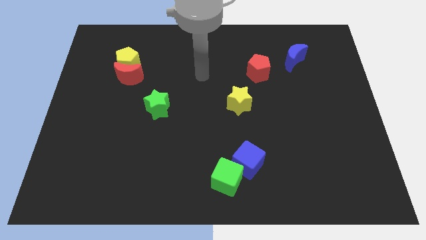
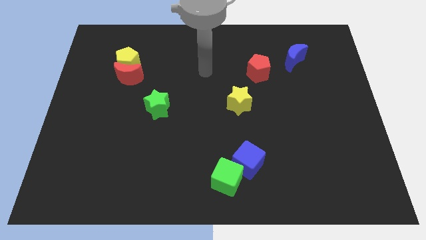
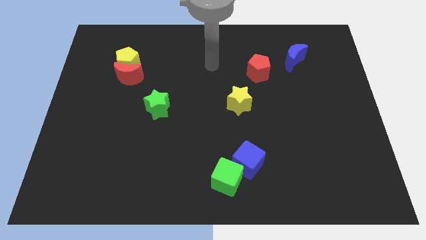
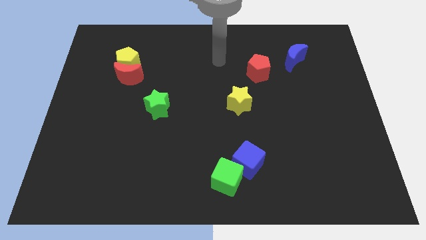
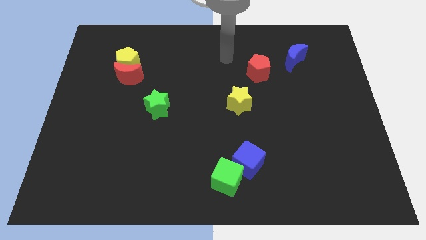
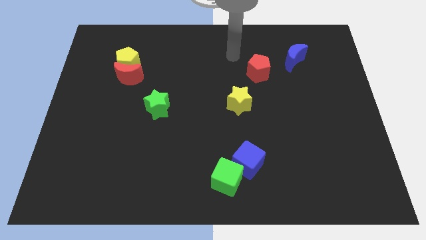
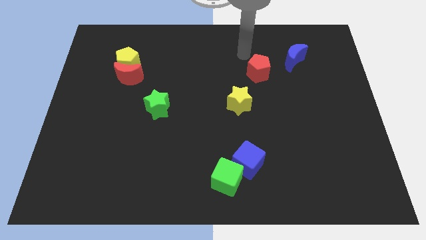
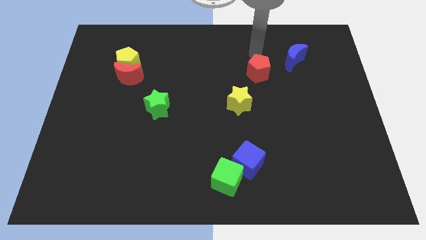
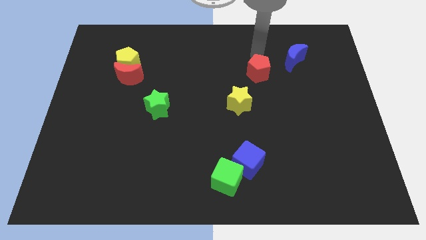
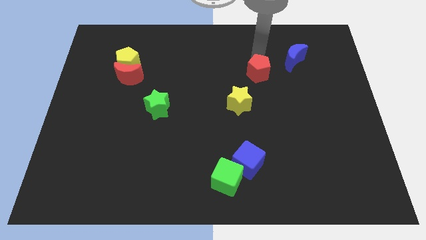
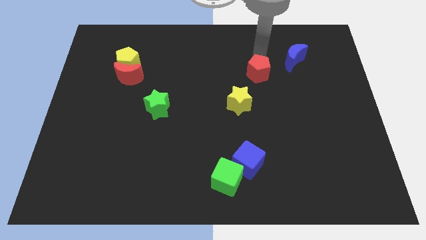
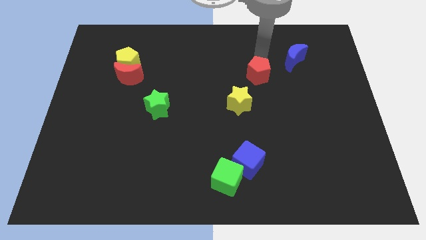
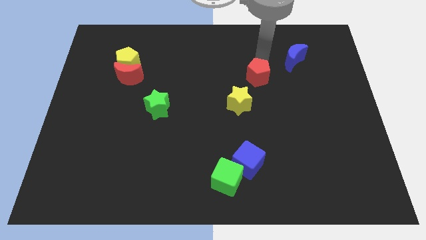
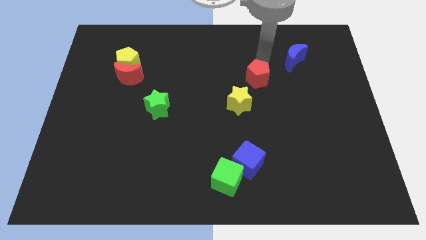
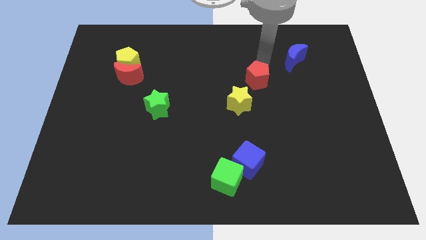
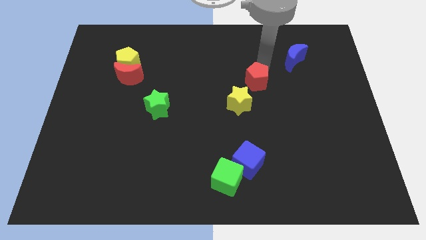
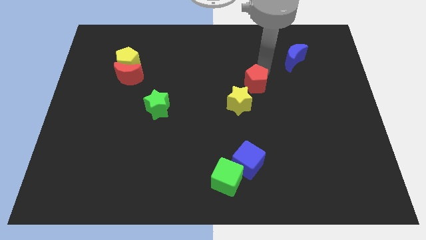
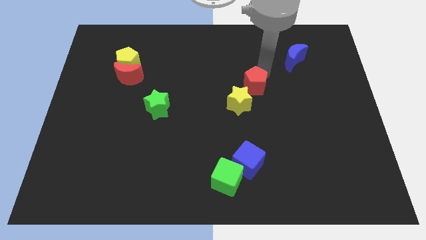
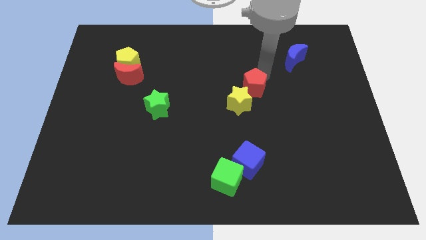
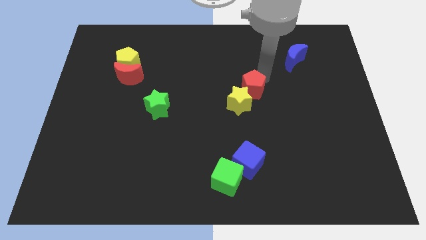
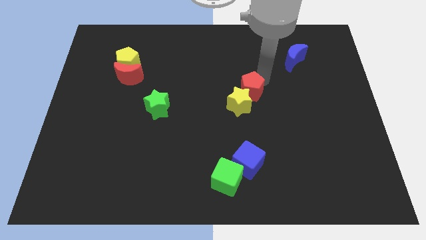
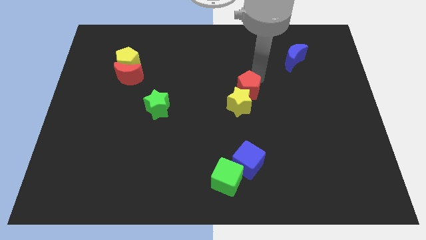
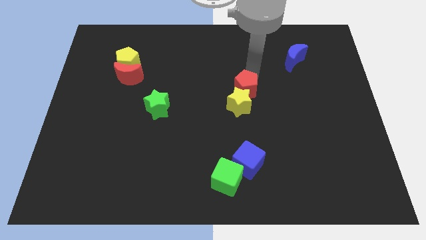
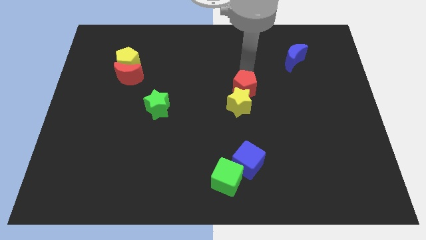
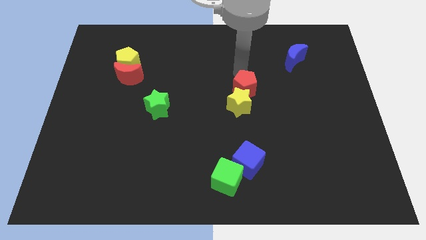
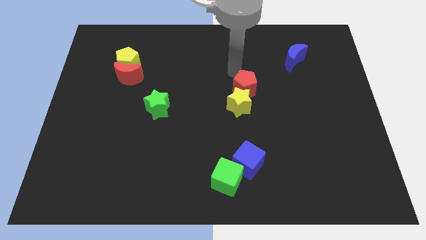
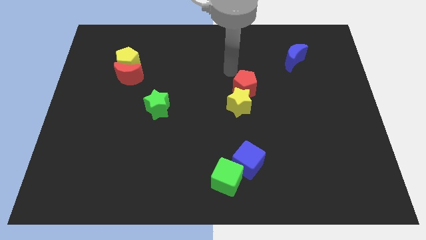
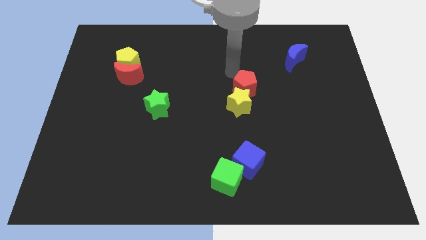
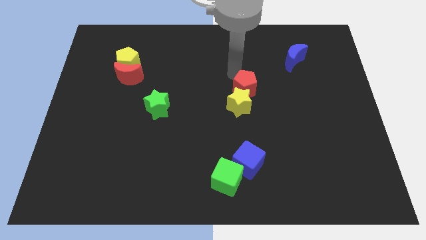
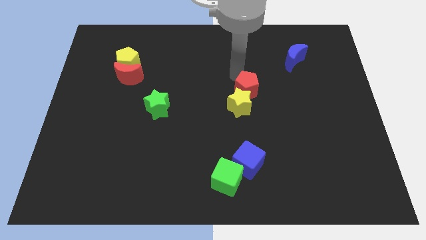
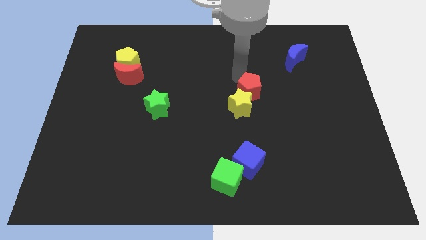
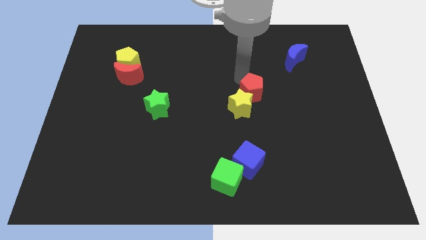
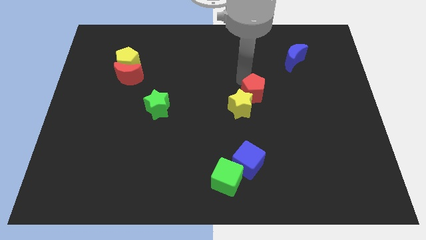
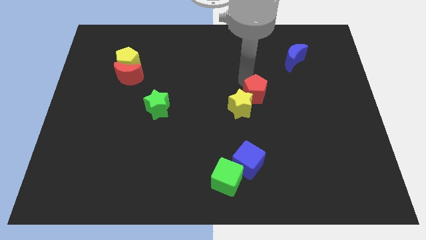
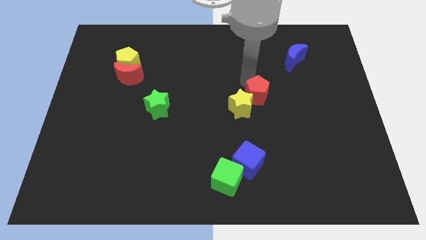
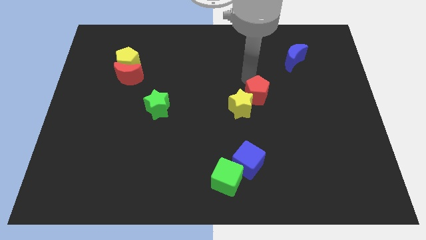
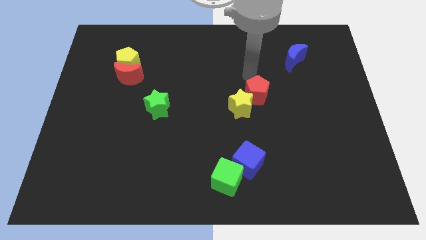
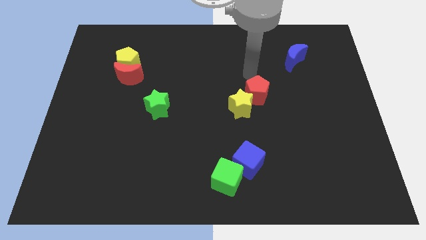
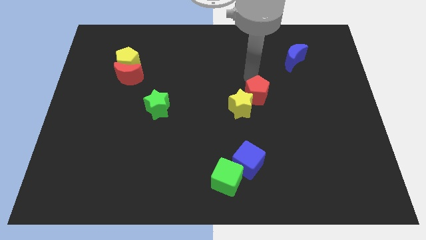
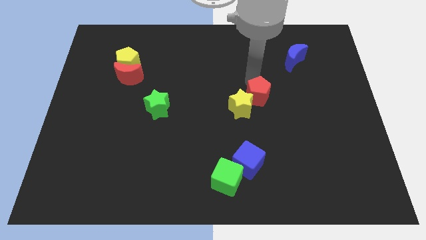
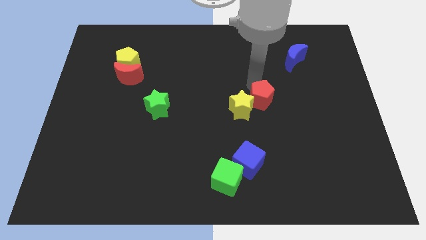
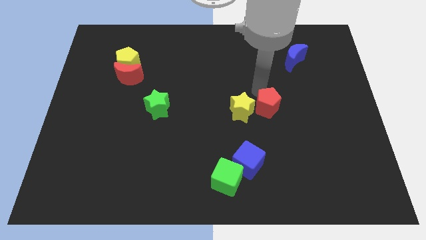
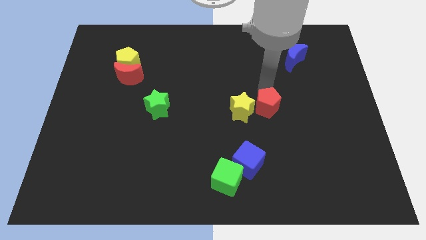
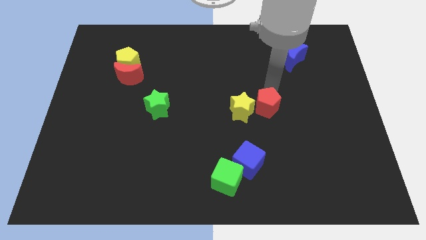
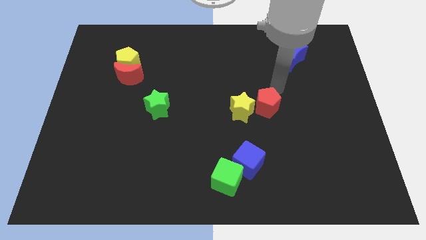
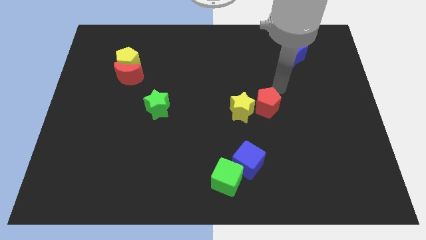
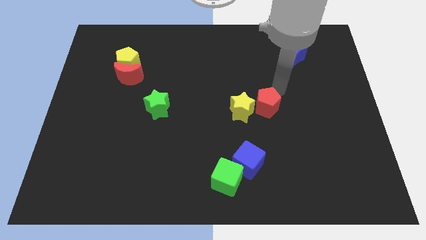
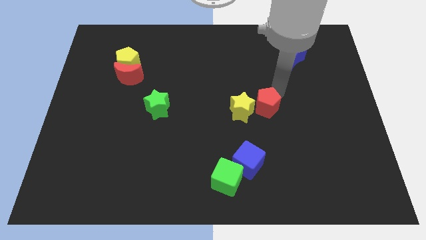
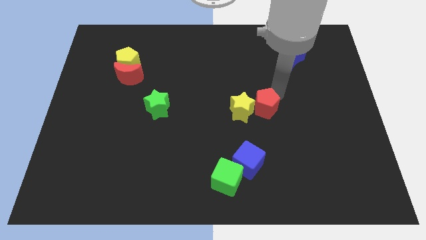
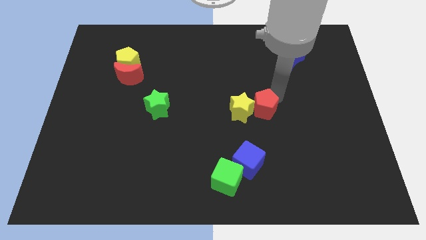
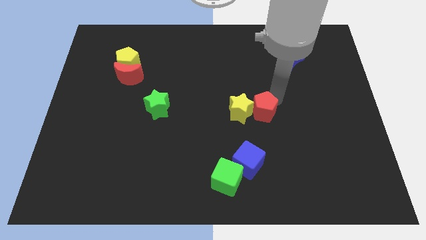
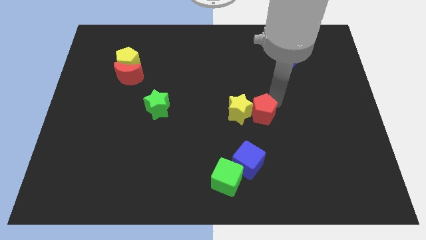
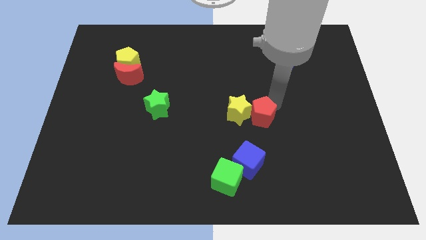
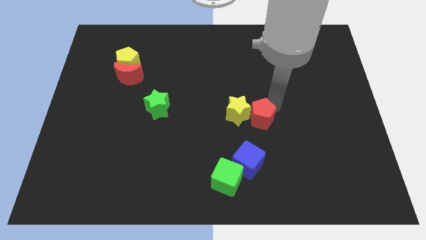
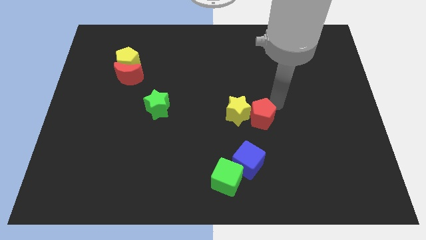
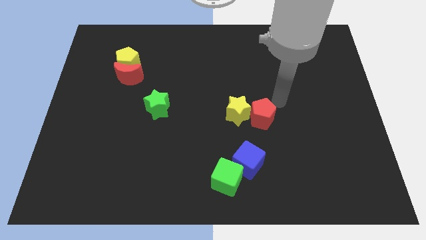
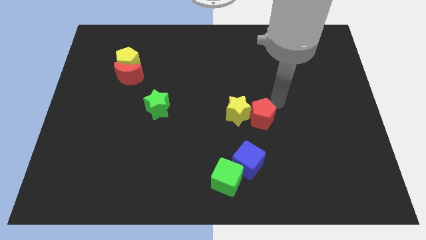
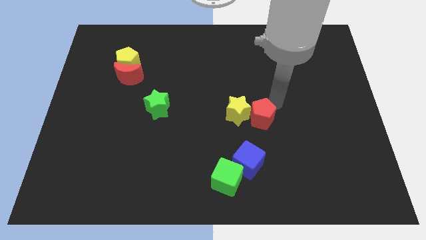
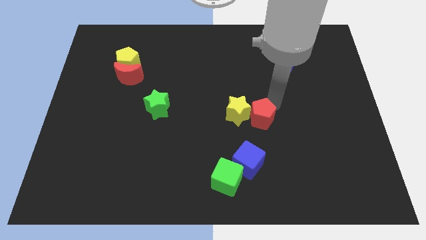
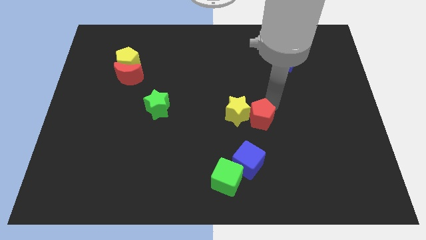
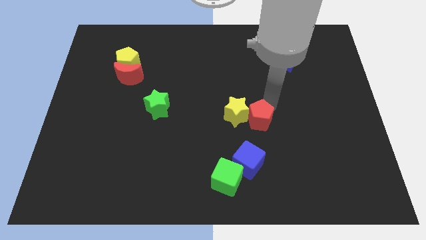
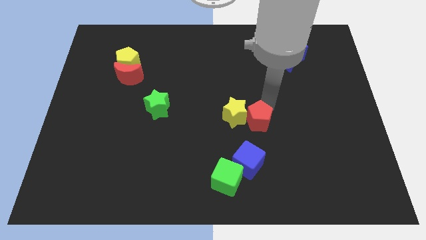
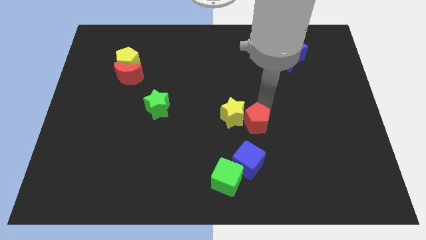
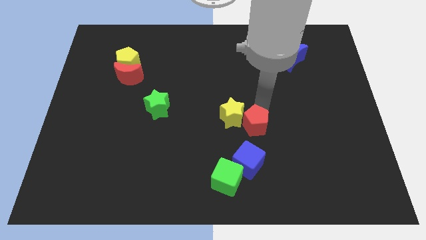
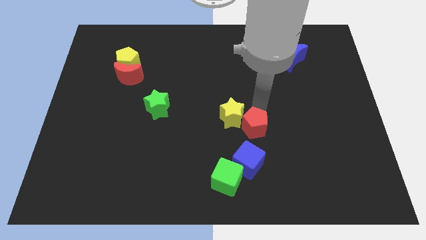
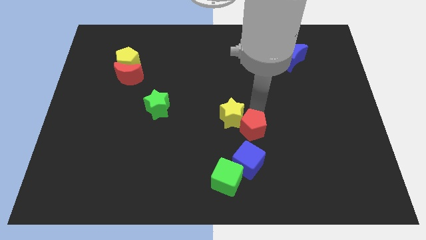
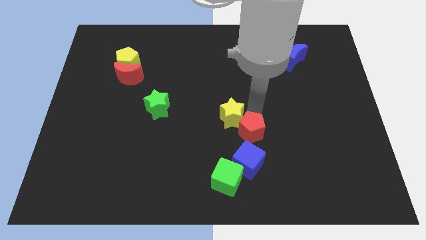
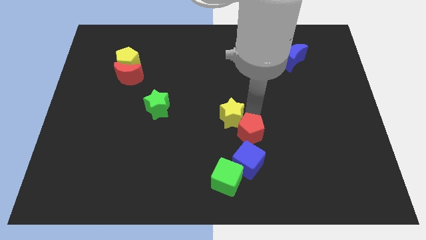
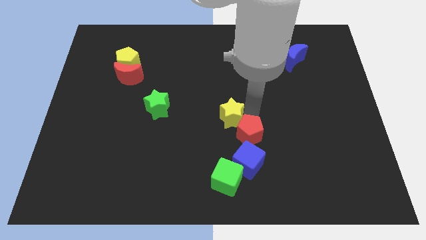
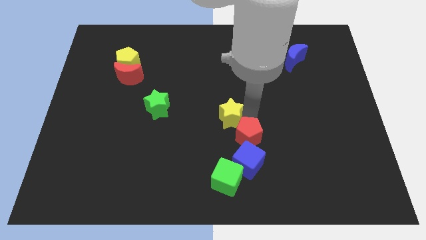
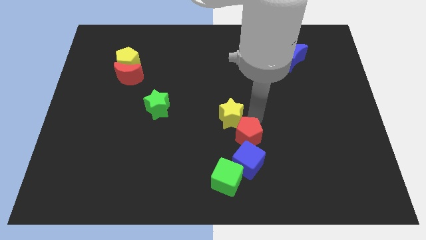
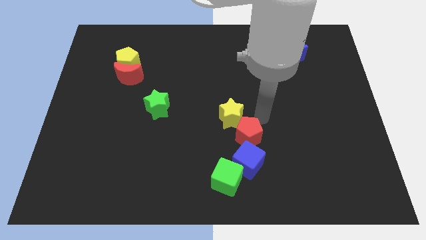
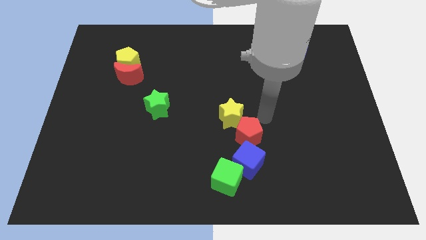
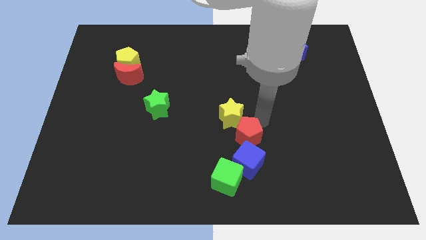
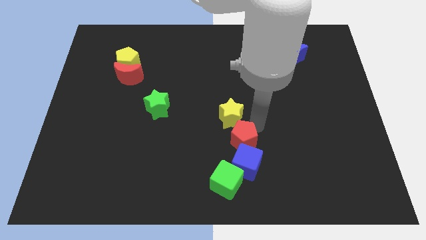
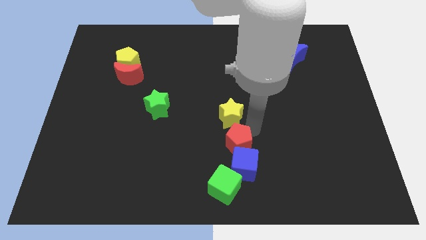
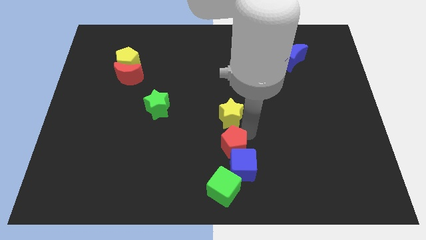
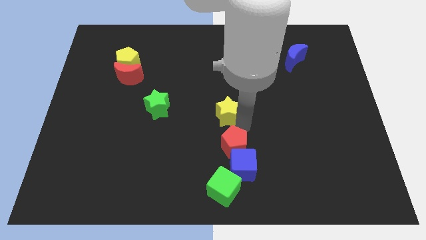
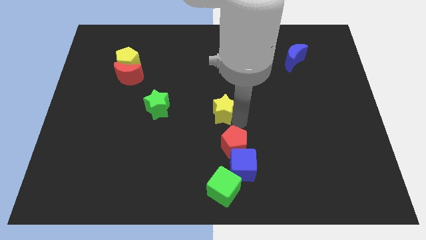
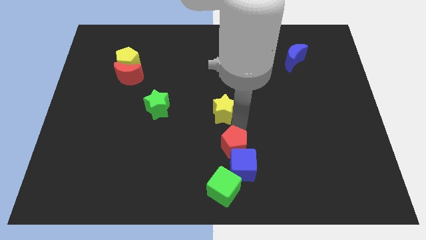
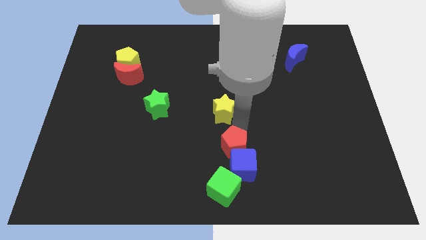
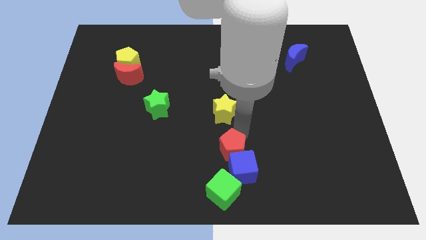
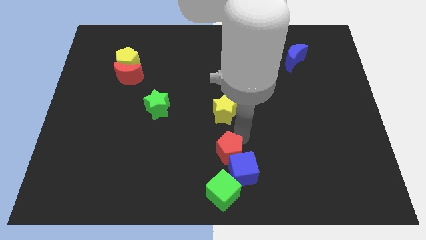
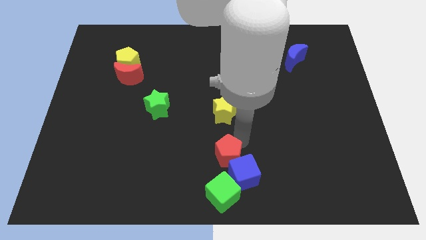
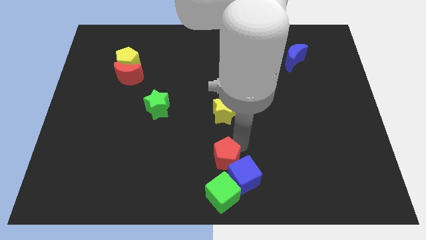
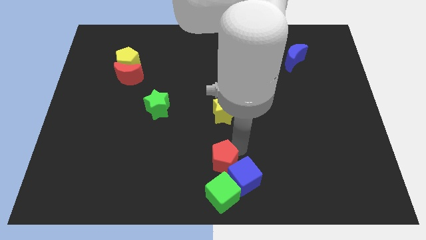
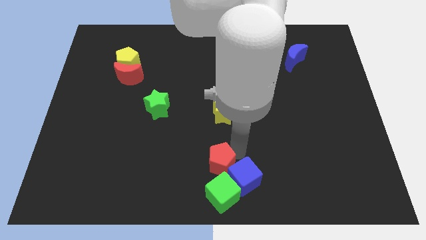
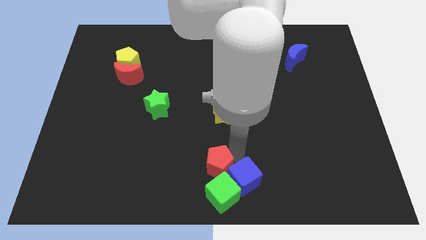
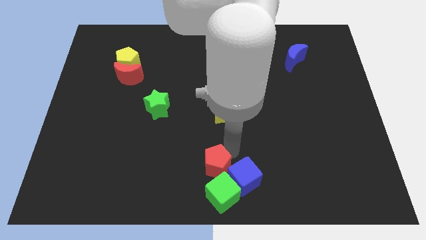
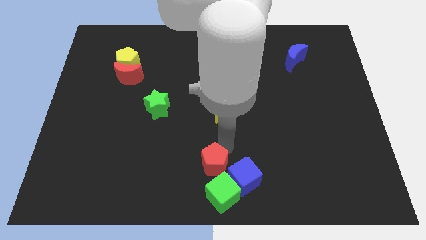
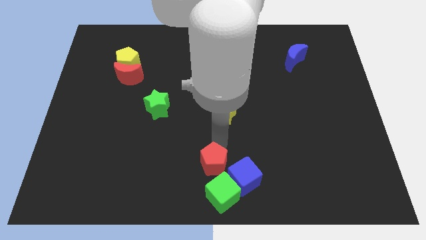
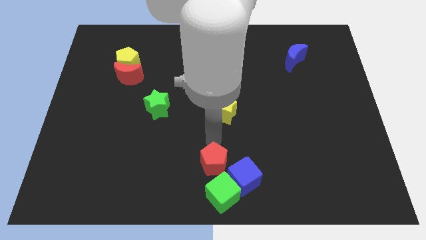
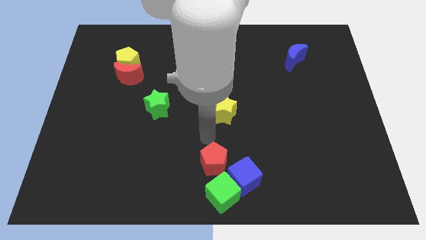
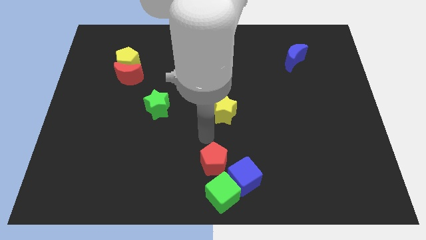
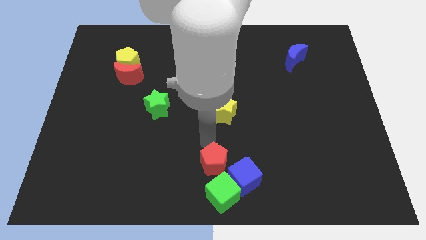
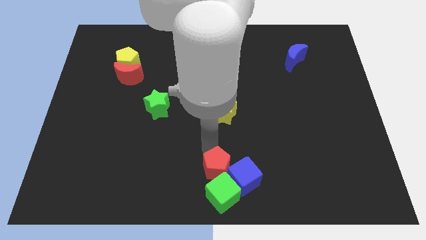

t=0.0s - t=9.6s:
push the red pentagon to the green cube
